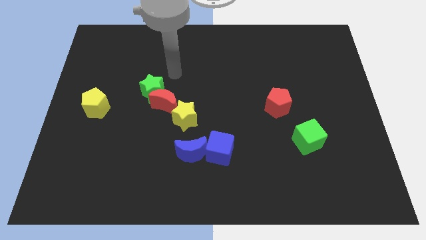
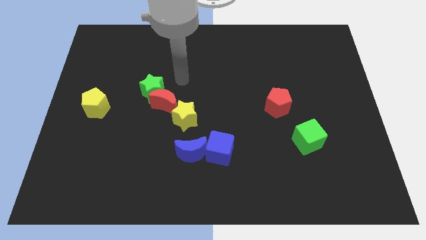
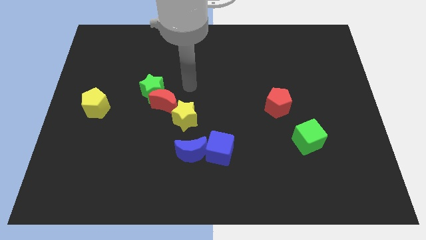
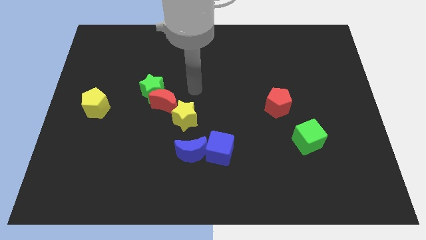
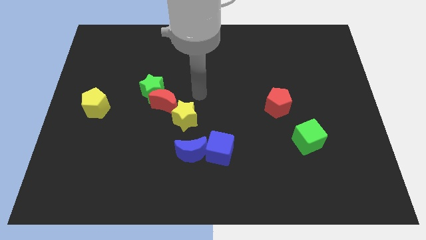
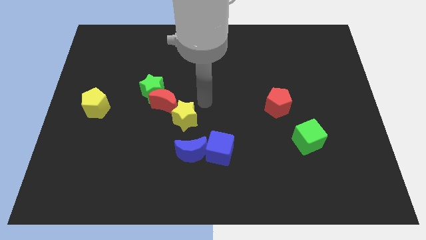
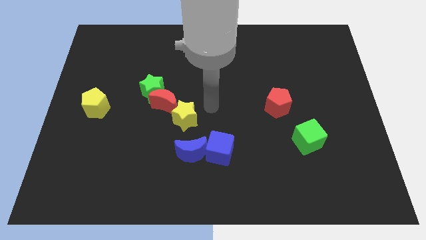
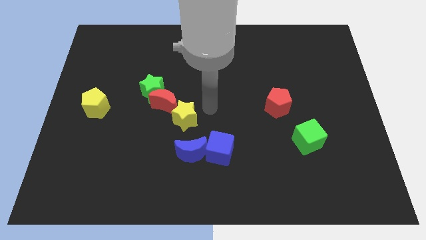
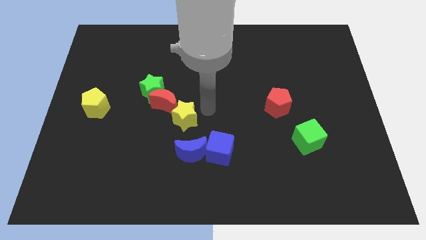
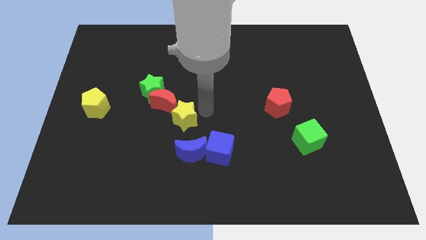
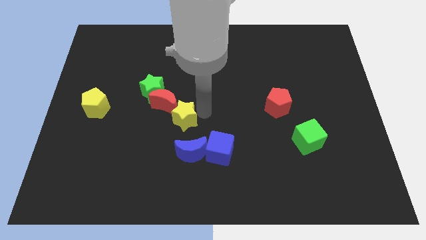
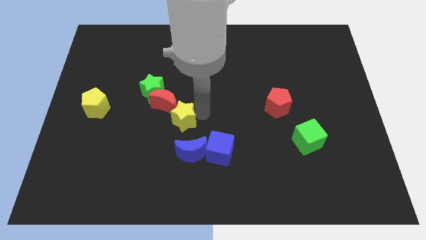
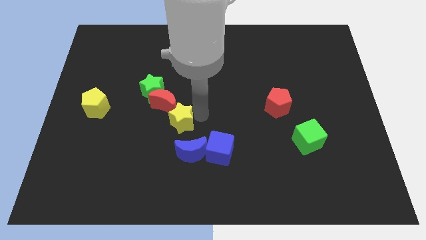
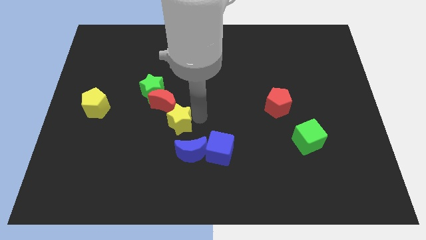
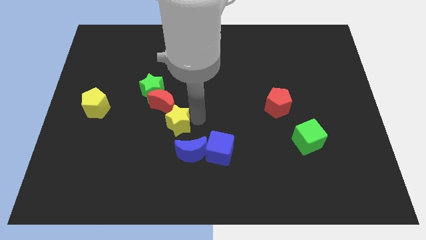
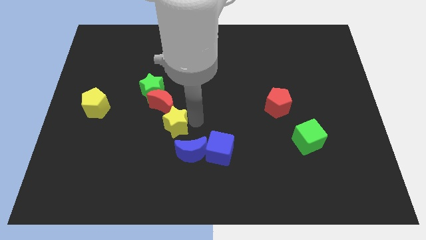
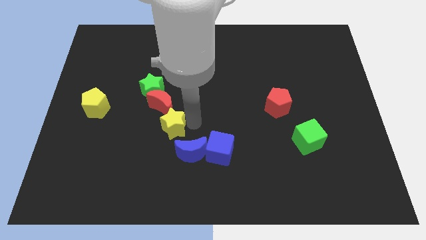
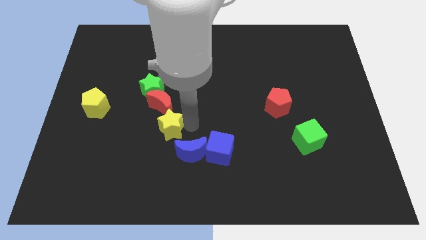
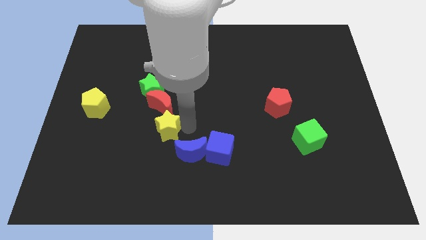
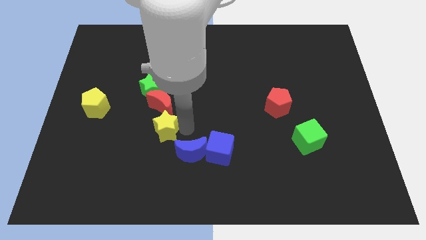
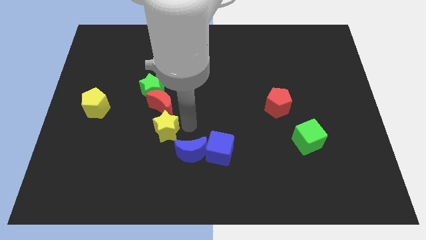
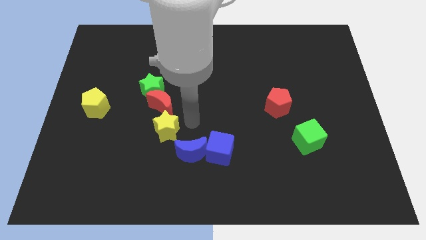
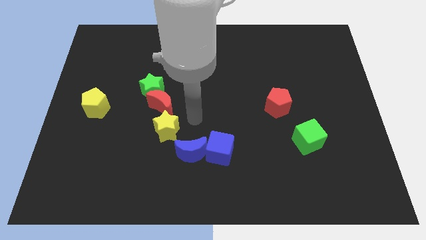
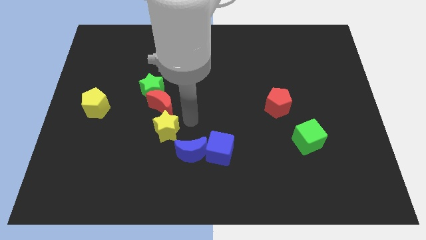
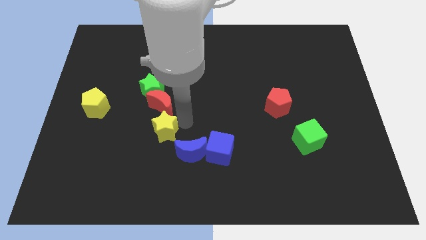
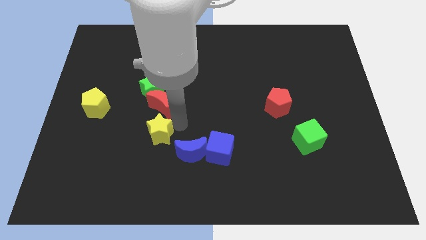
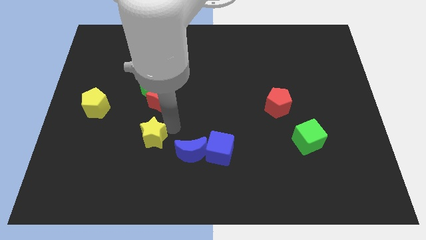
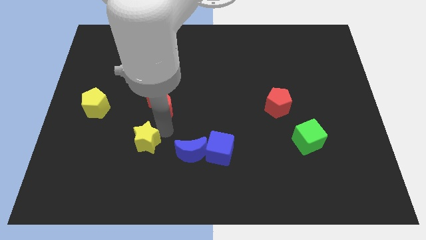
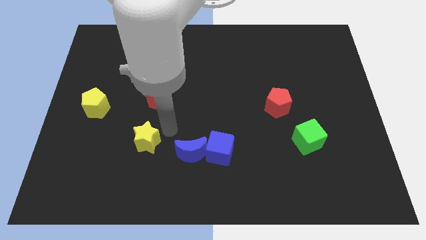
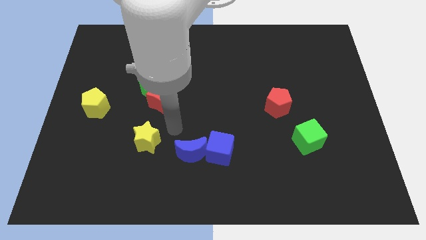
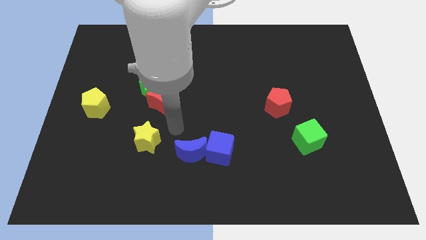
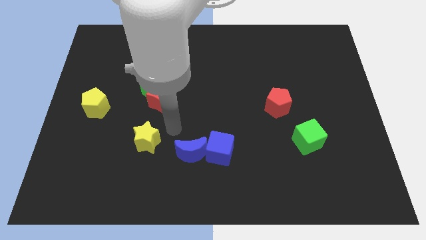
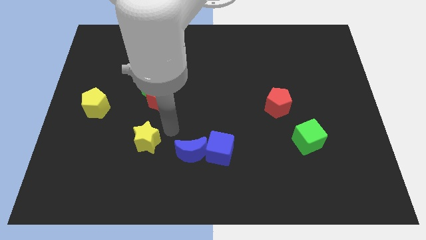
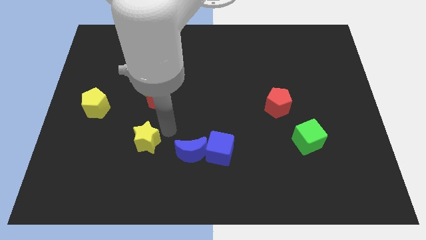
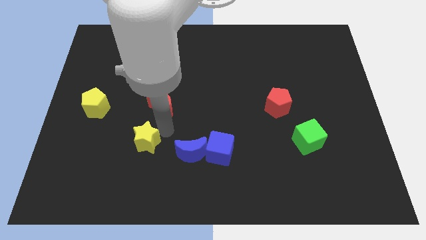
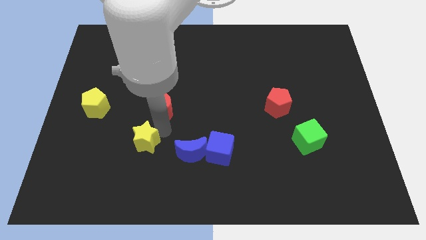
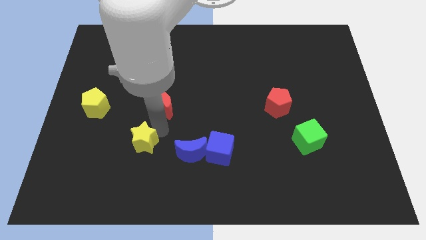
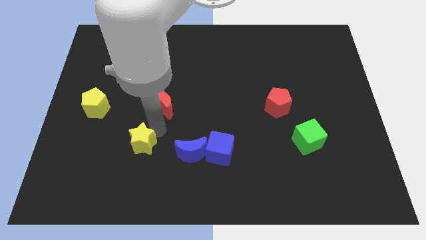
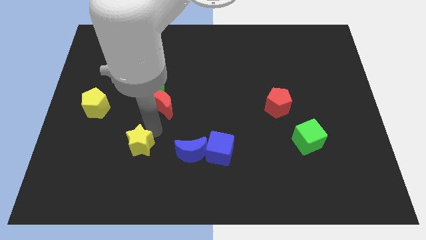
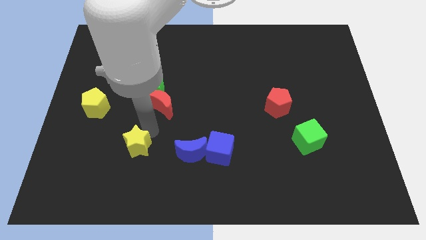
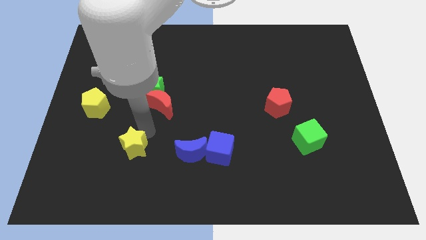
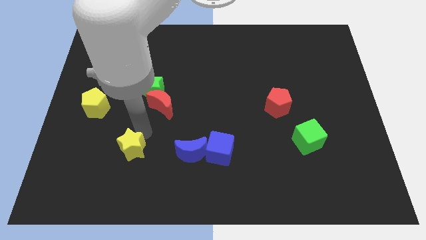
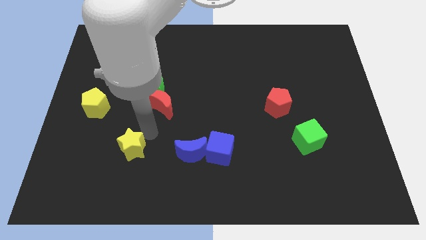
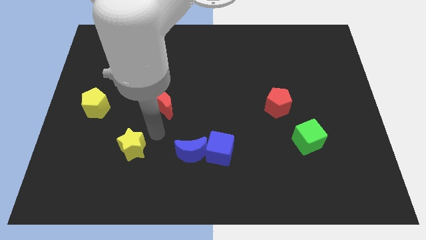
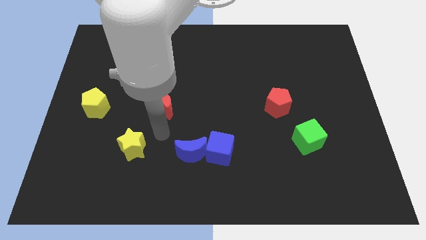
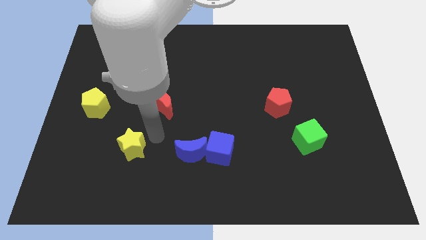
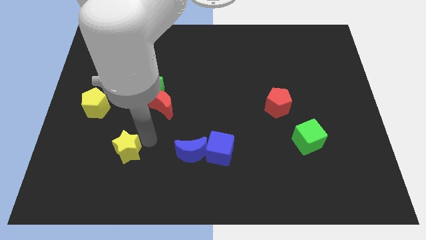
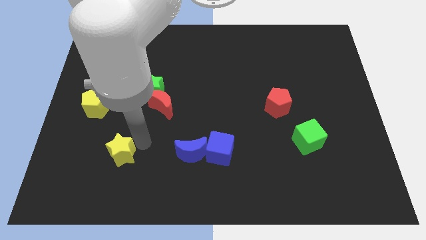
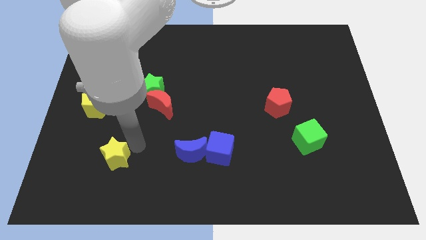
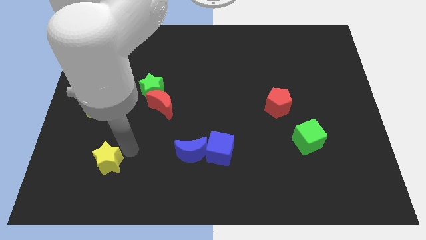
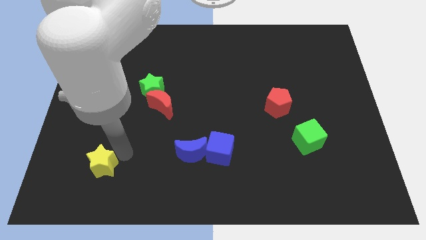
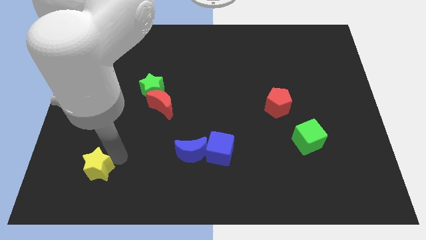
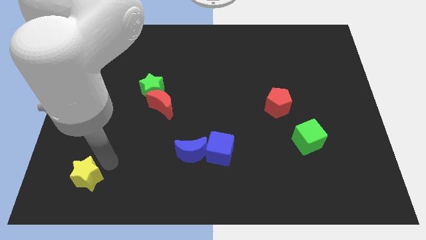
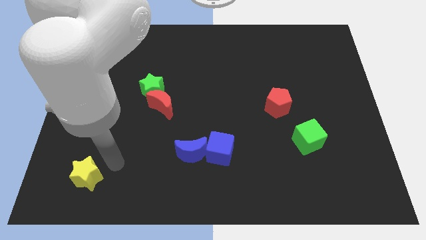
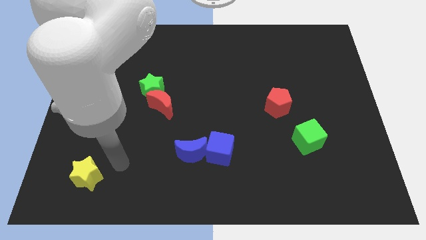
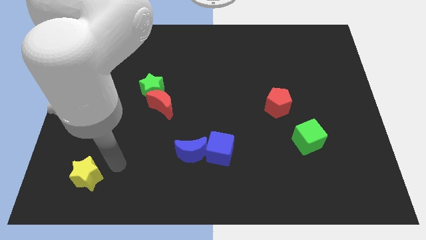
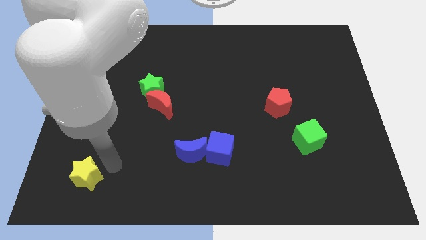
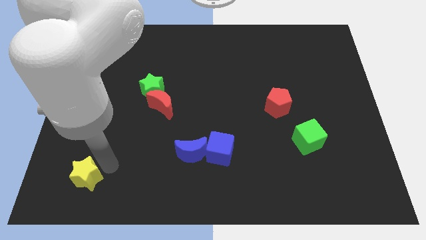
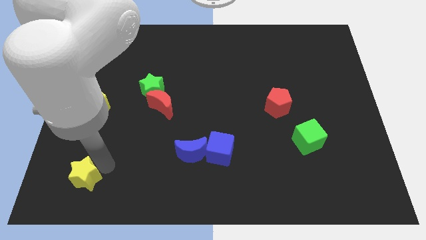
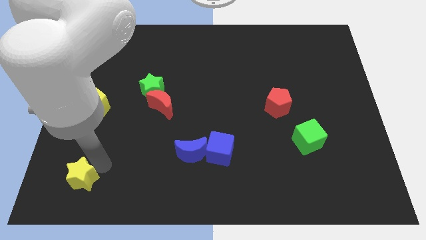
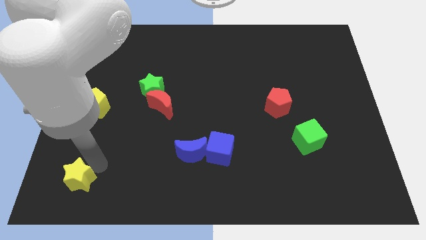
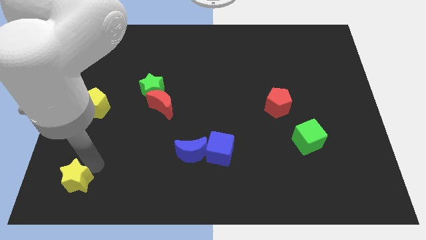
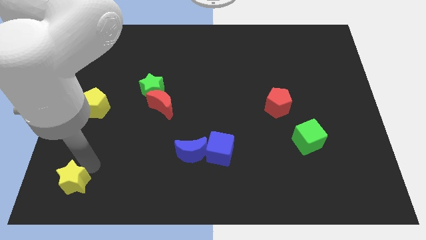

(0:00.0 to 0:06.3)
slide the yellow star to the bottom left

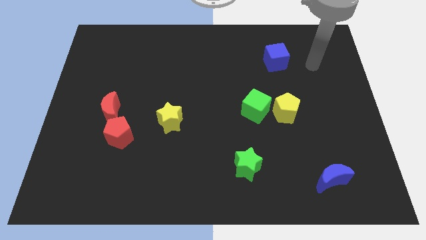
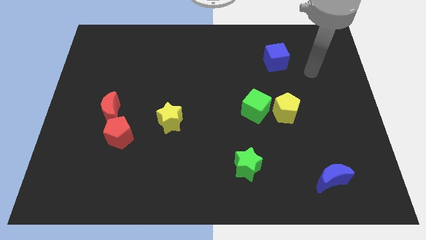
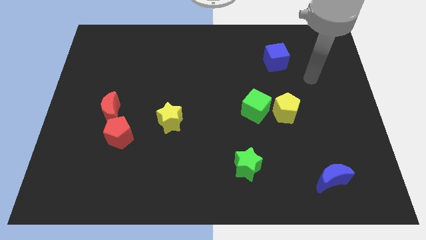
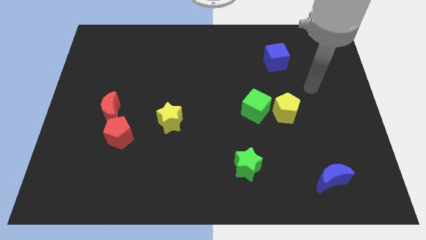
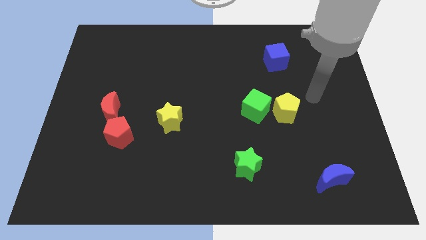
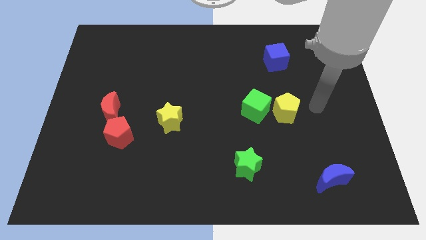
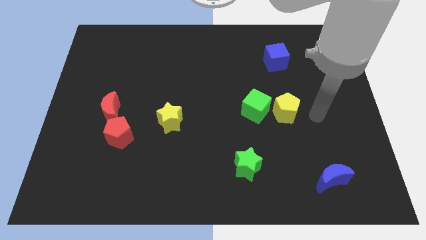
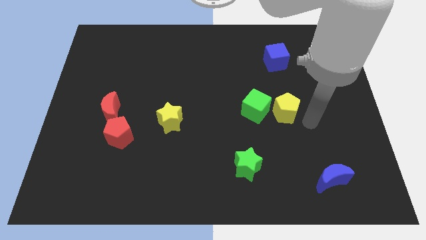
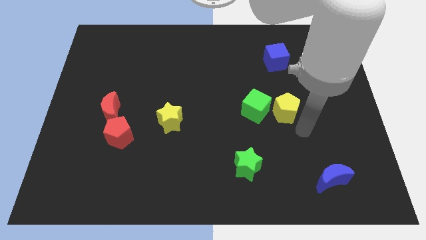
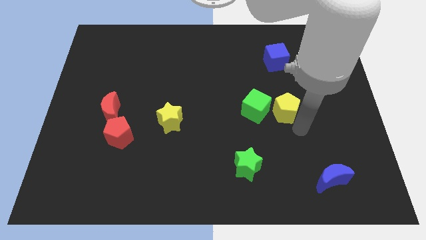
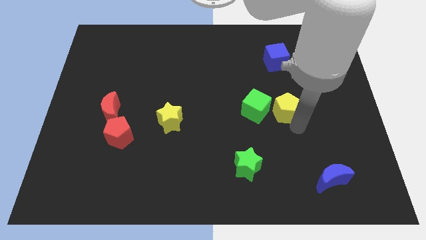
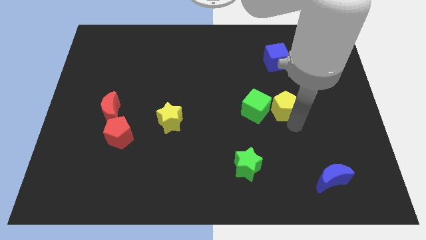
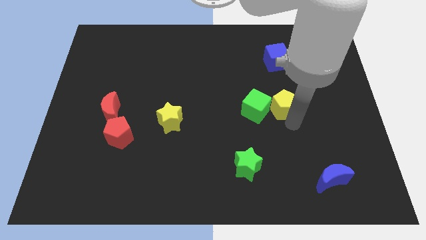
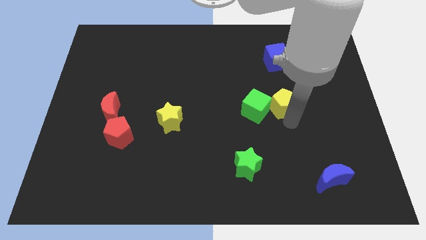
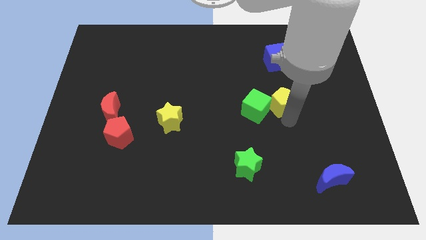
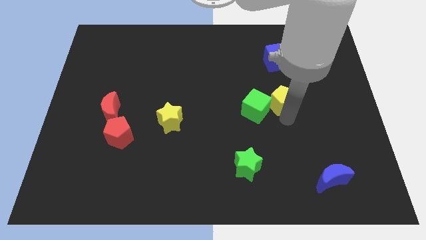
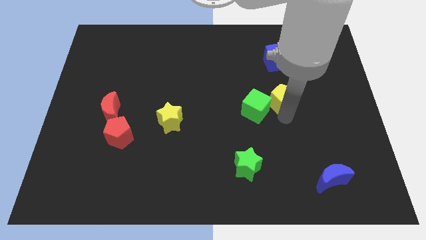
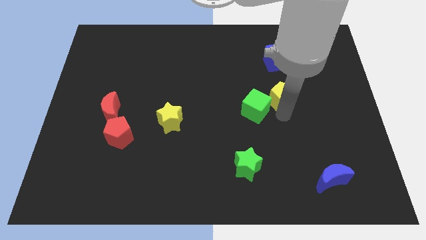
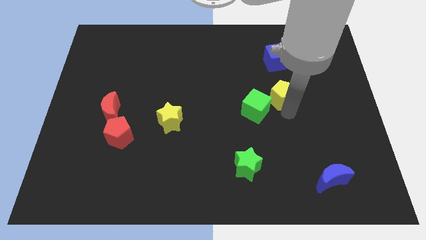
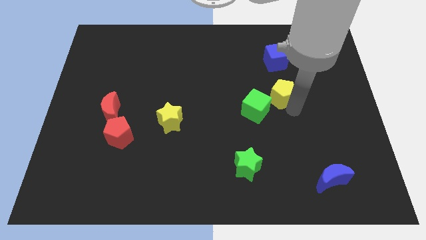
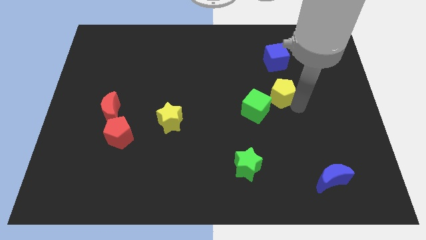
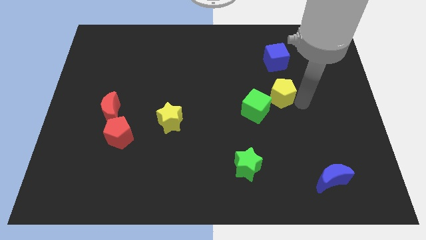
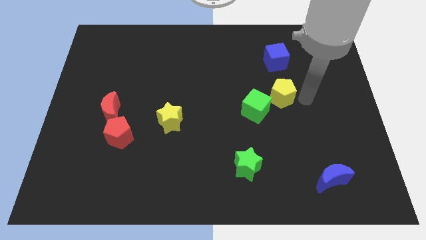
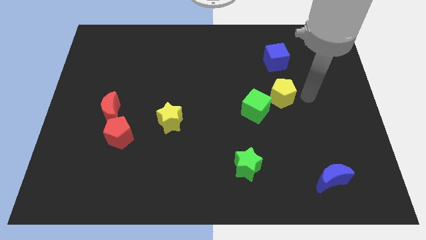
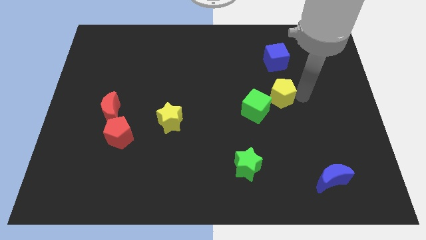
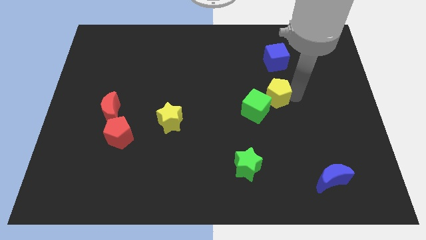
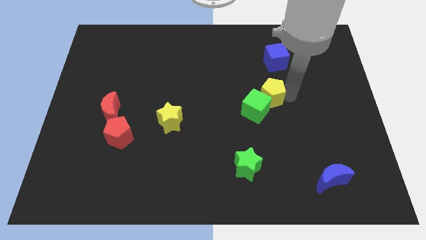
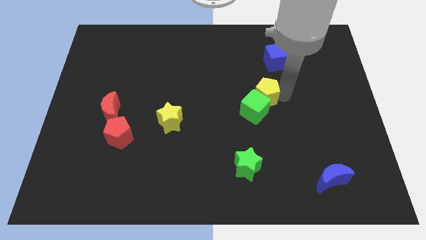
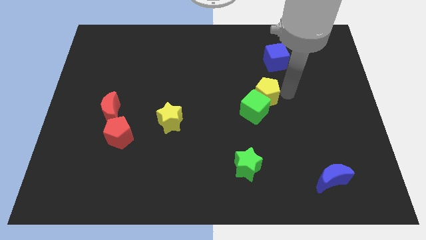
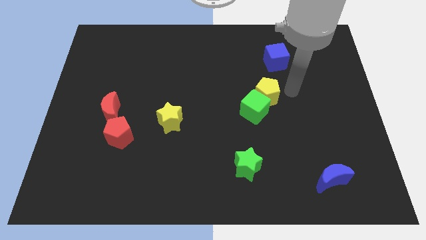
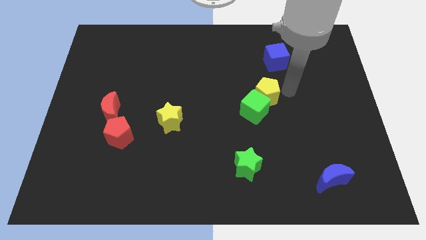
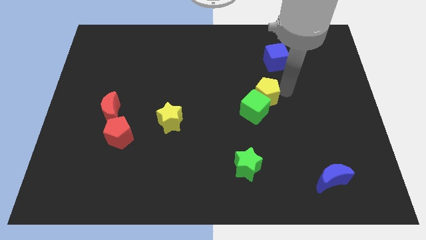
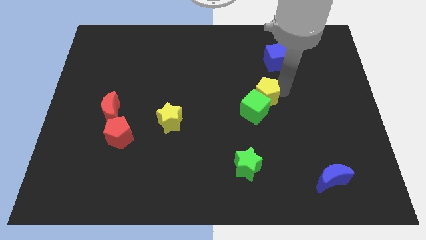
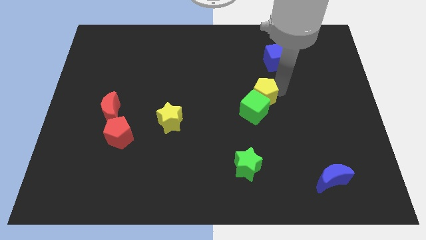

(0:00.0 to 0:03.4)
slide the yellow pentagon to the middle
